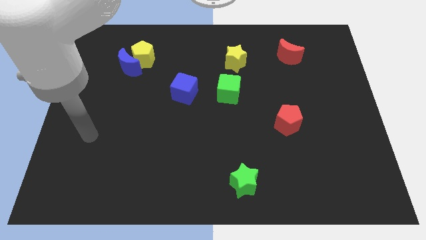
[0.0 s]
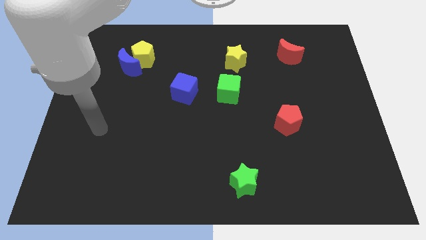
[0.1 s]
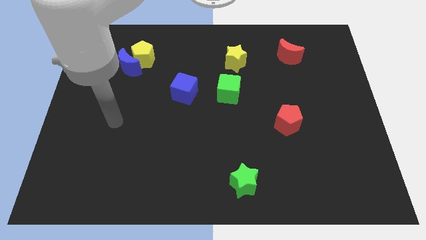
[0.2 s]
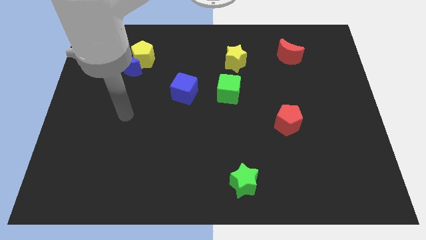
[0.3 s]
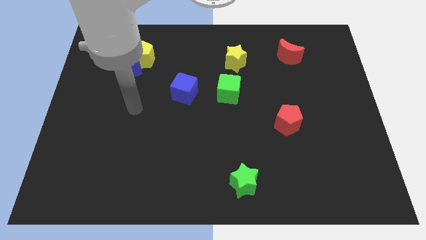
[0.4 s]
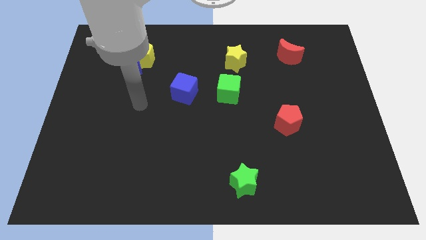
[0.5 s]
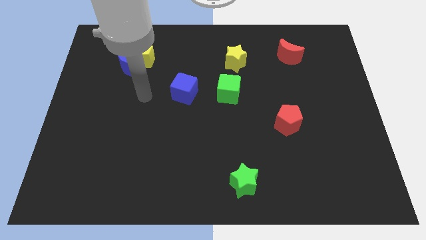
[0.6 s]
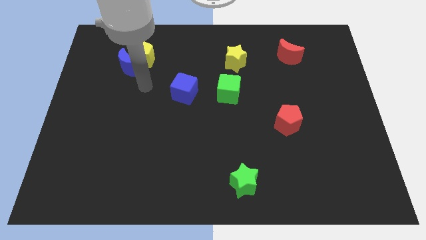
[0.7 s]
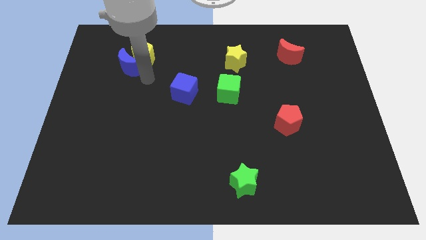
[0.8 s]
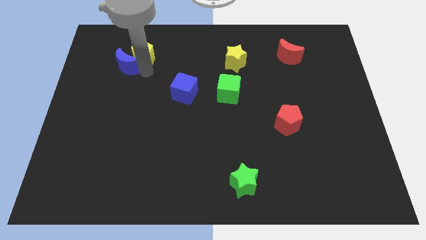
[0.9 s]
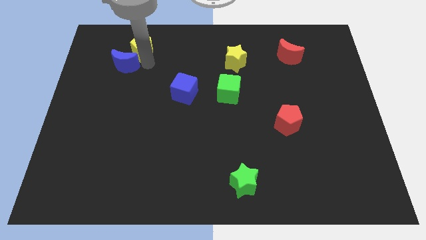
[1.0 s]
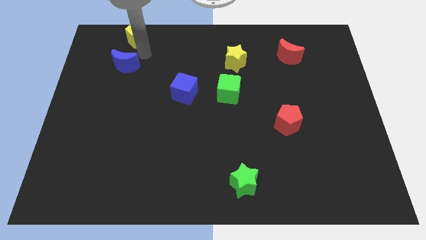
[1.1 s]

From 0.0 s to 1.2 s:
pull the blue moon apart from the yellow pentagon

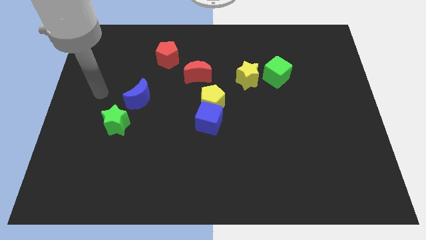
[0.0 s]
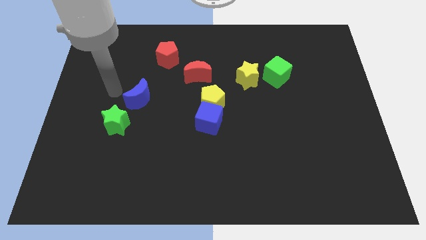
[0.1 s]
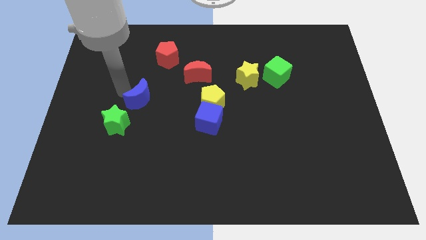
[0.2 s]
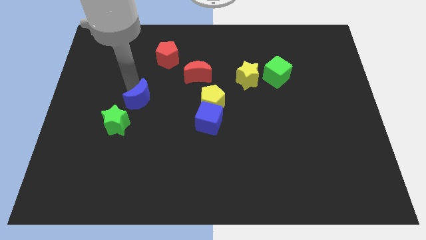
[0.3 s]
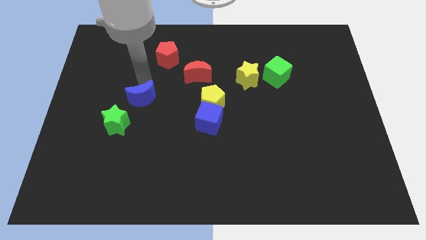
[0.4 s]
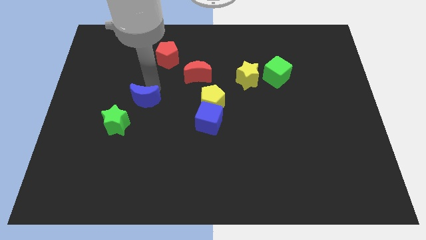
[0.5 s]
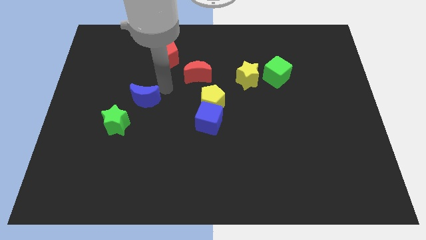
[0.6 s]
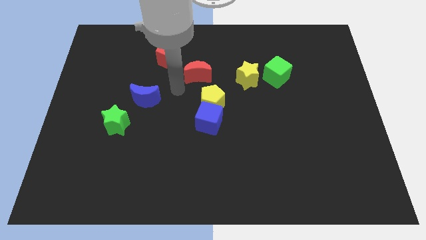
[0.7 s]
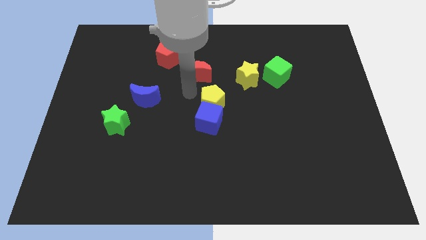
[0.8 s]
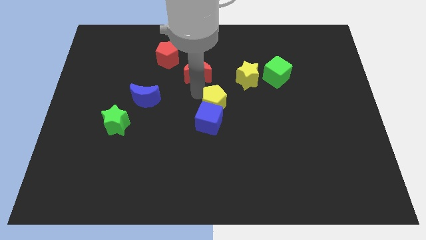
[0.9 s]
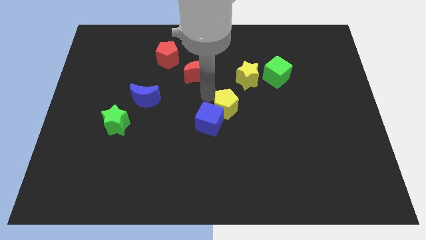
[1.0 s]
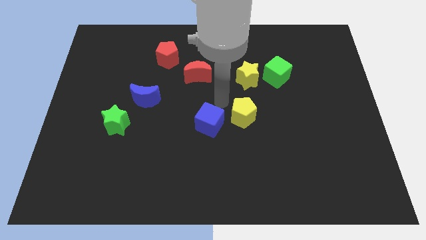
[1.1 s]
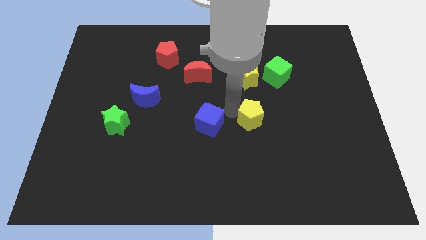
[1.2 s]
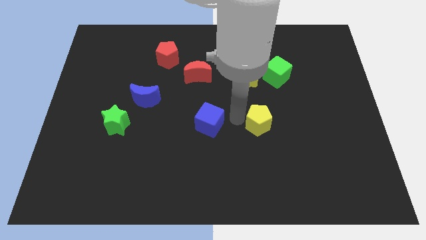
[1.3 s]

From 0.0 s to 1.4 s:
separate the blue cube from the yellow pentagon

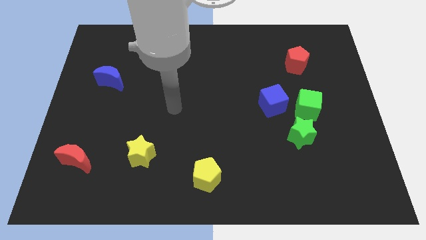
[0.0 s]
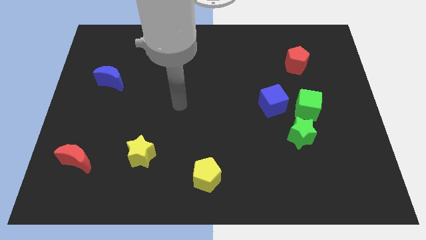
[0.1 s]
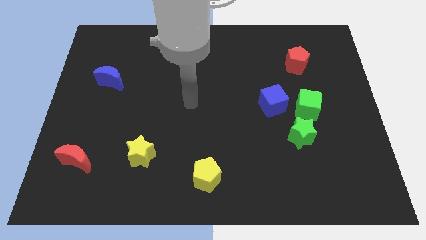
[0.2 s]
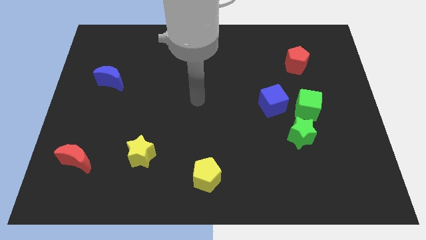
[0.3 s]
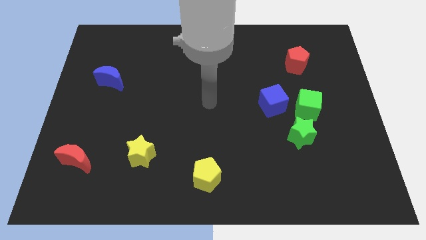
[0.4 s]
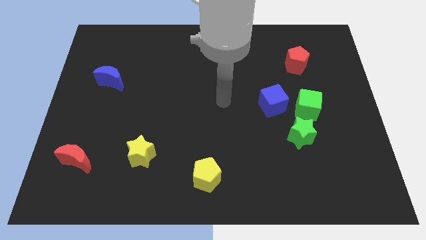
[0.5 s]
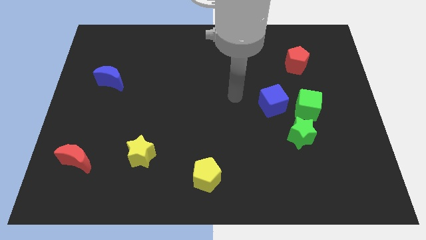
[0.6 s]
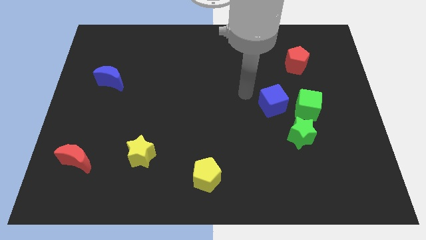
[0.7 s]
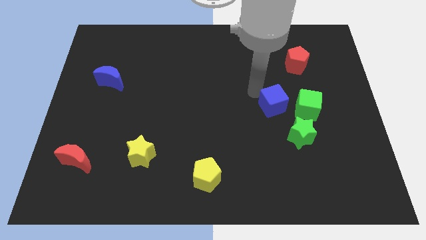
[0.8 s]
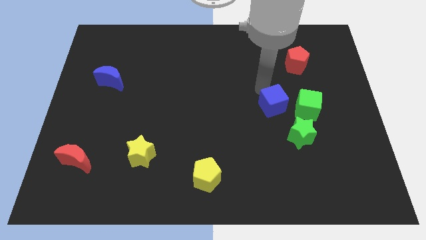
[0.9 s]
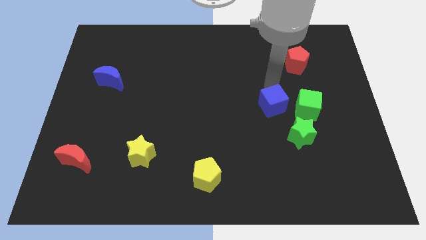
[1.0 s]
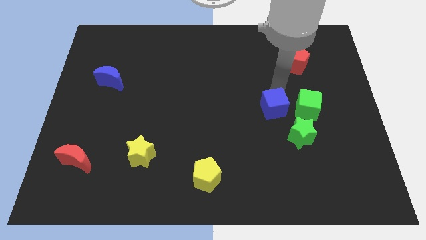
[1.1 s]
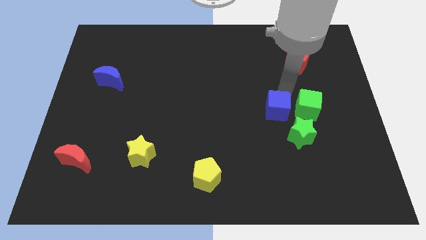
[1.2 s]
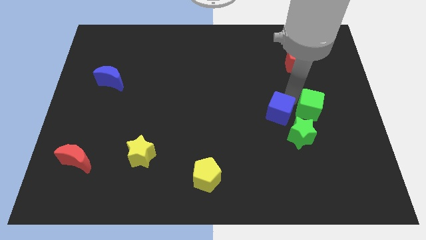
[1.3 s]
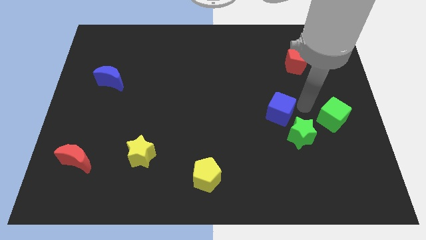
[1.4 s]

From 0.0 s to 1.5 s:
separate the blue cube from the green cube

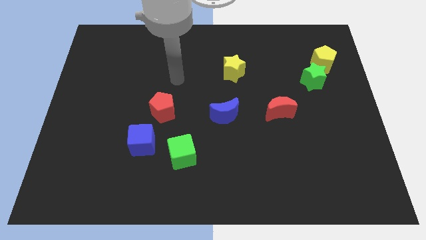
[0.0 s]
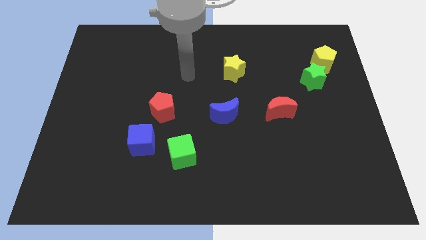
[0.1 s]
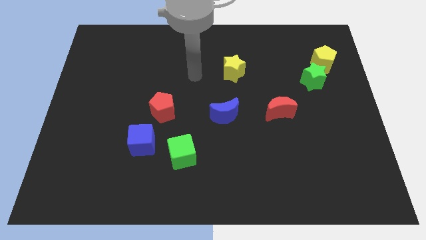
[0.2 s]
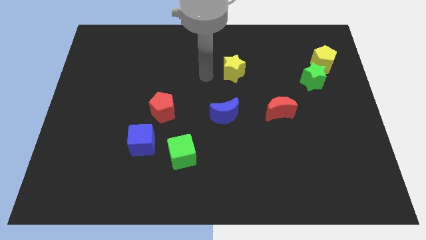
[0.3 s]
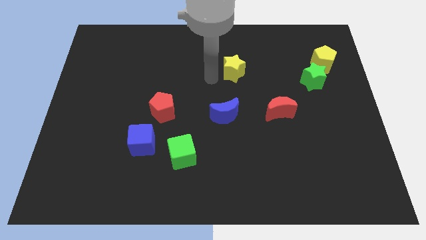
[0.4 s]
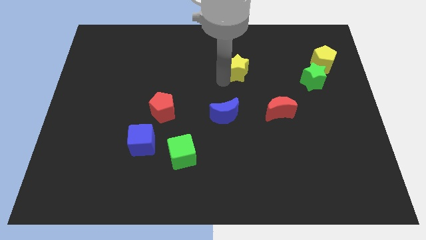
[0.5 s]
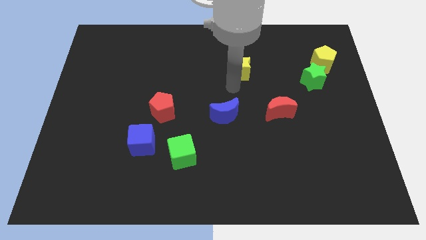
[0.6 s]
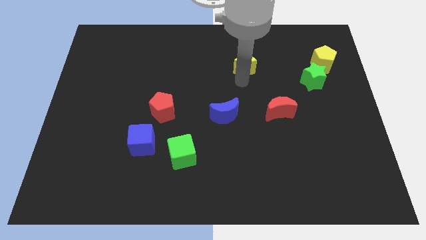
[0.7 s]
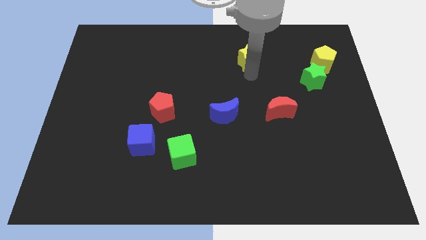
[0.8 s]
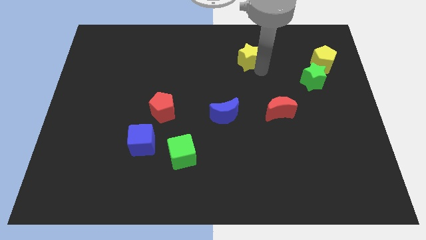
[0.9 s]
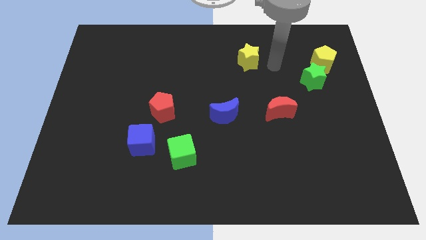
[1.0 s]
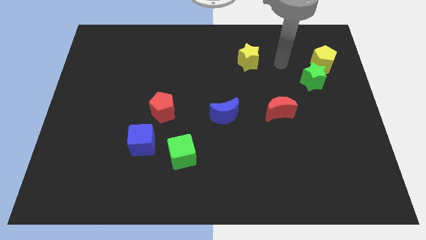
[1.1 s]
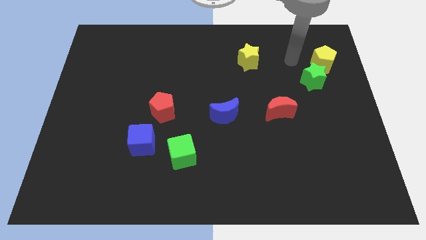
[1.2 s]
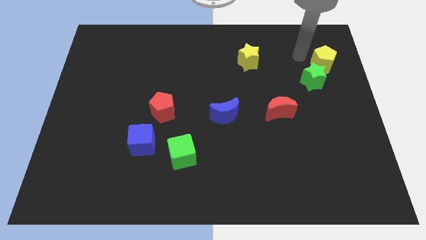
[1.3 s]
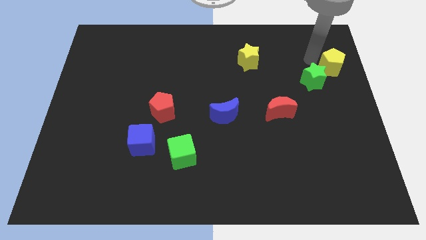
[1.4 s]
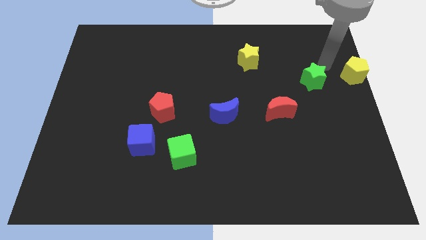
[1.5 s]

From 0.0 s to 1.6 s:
pull the green star apart from the yellow pentagon

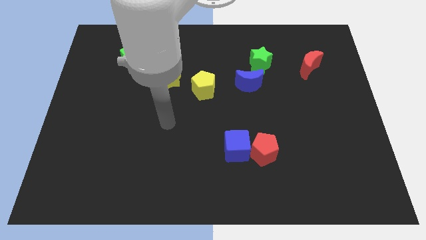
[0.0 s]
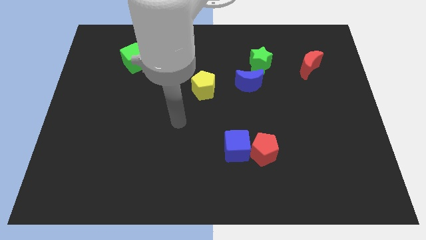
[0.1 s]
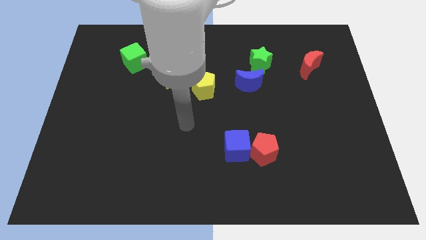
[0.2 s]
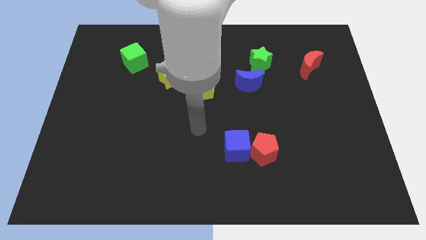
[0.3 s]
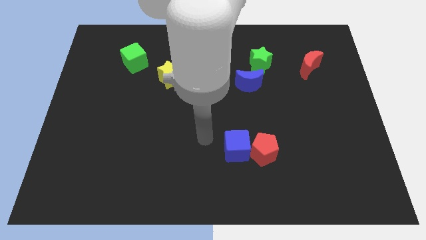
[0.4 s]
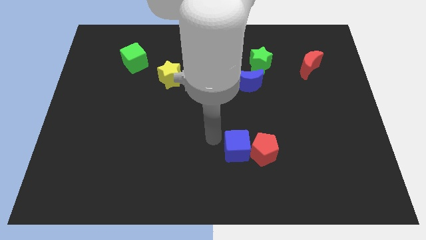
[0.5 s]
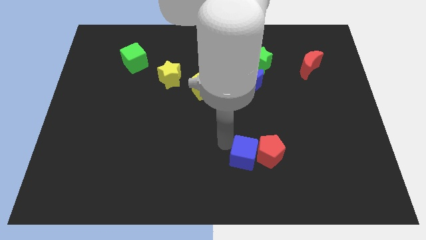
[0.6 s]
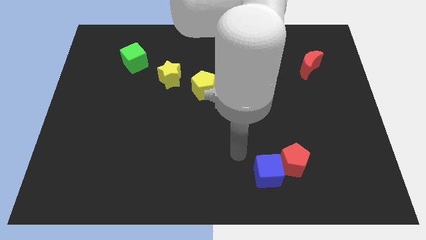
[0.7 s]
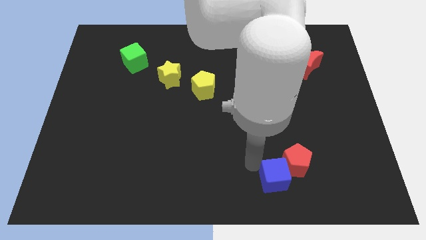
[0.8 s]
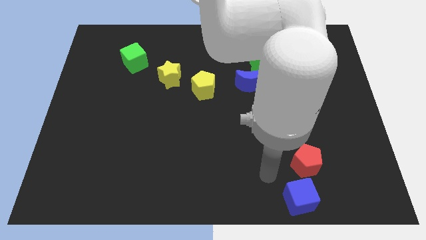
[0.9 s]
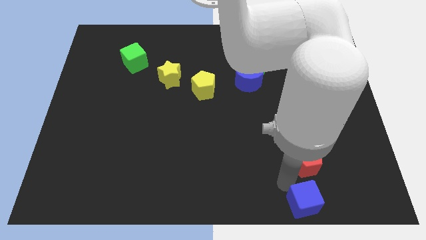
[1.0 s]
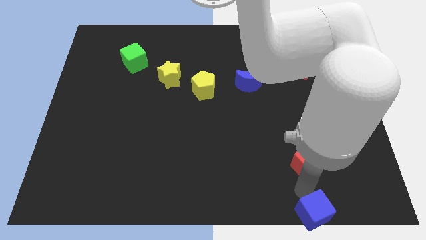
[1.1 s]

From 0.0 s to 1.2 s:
separate the red pentagon from the blue cube

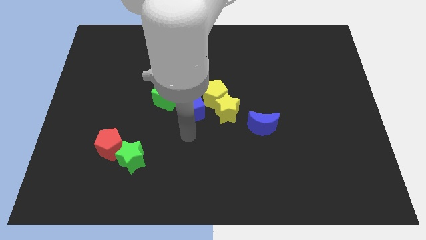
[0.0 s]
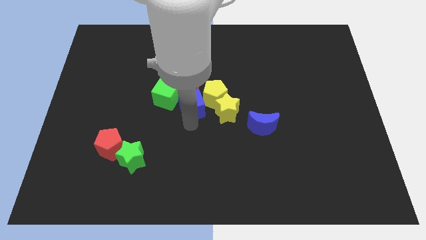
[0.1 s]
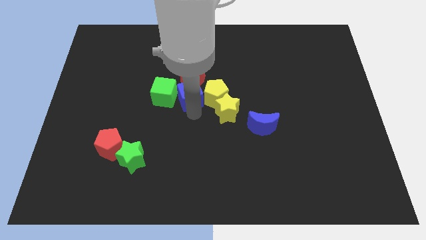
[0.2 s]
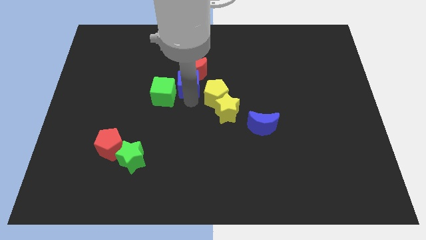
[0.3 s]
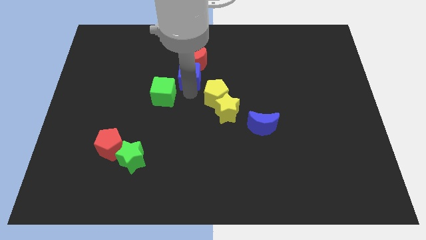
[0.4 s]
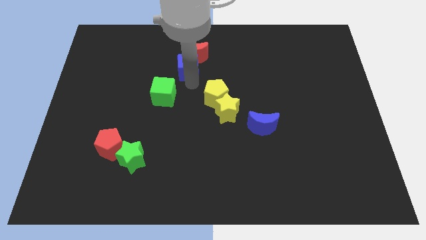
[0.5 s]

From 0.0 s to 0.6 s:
move the red moon away from the group of blocks

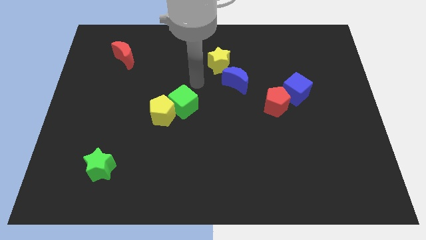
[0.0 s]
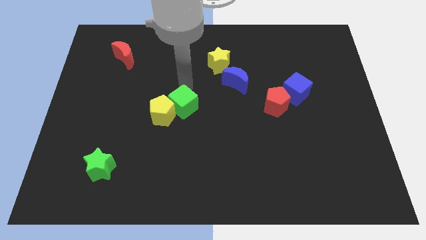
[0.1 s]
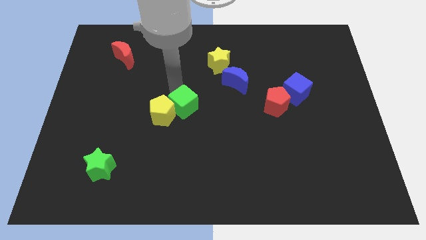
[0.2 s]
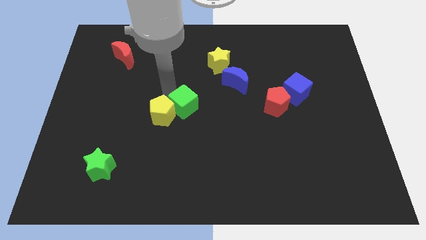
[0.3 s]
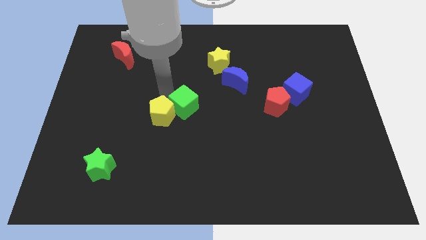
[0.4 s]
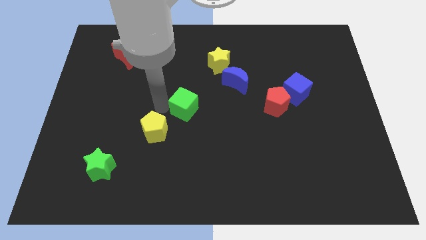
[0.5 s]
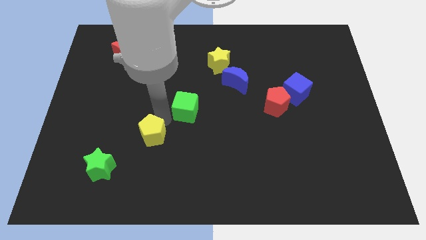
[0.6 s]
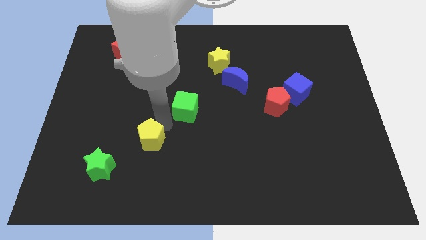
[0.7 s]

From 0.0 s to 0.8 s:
move the green cube away from the yellow pentagon

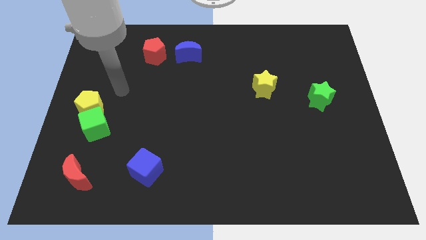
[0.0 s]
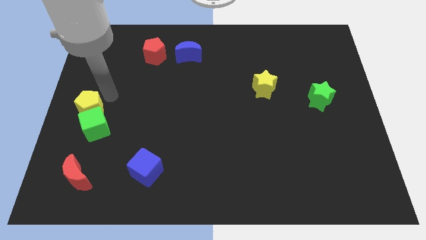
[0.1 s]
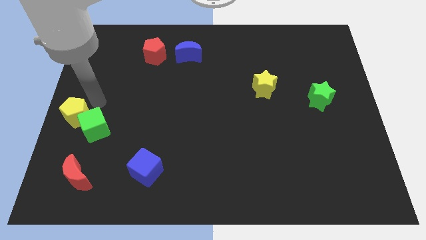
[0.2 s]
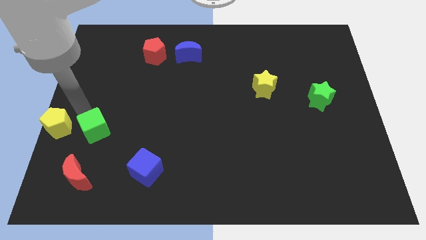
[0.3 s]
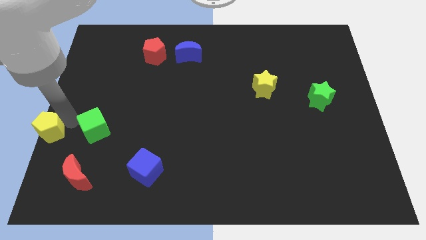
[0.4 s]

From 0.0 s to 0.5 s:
separate the green cube from the yellow pentagon

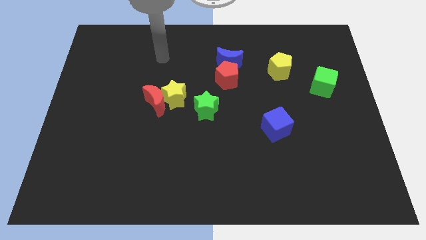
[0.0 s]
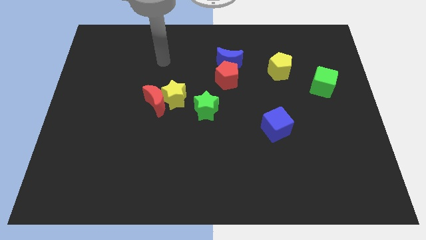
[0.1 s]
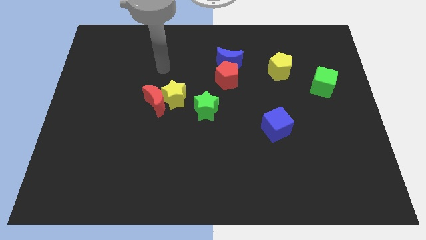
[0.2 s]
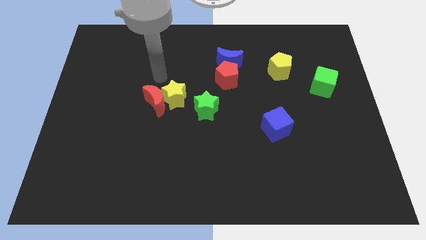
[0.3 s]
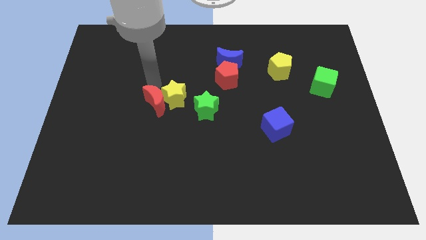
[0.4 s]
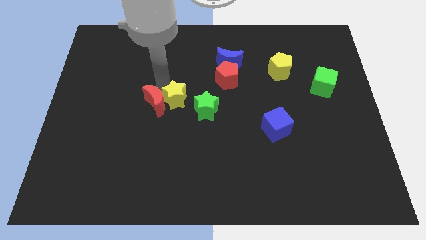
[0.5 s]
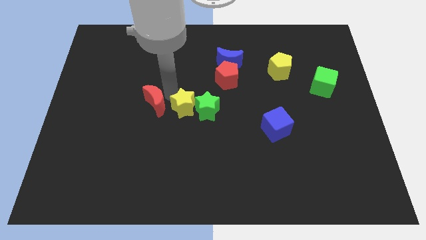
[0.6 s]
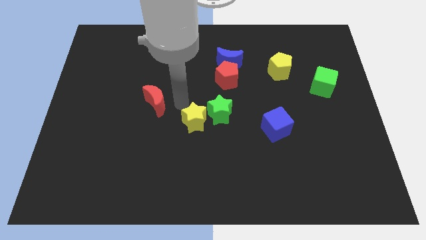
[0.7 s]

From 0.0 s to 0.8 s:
separate the red moon from the yellow star
